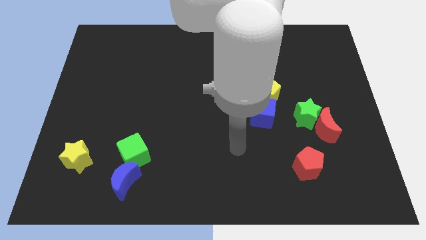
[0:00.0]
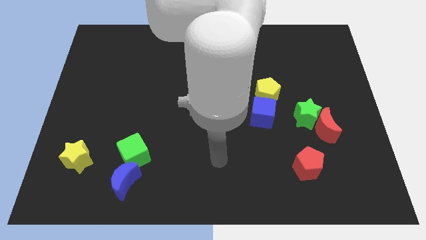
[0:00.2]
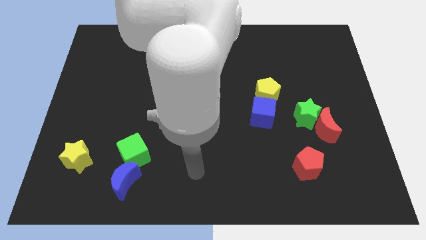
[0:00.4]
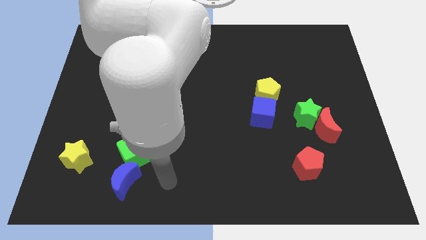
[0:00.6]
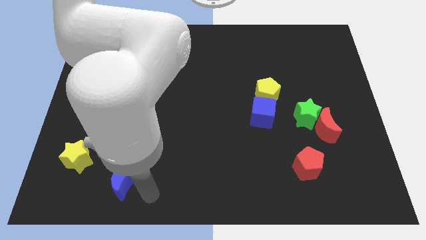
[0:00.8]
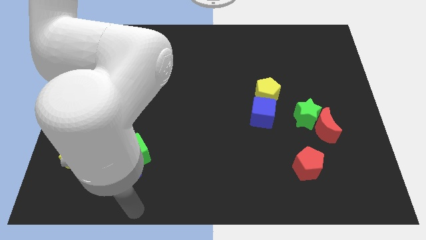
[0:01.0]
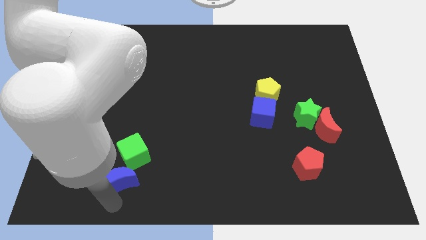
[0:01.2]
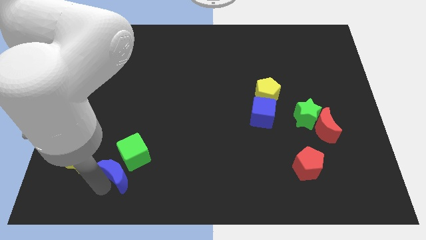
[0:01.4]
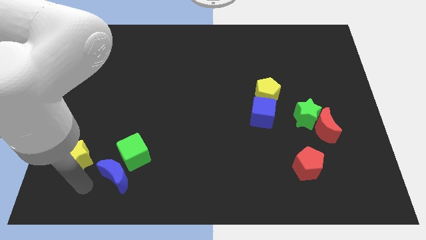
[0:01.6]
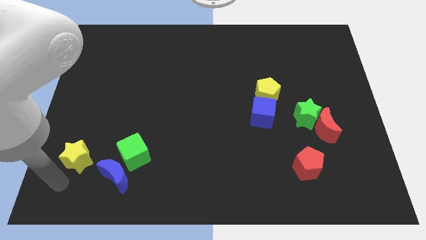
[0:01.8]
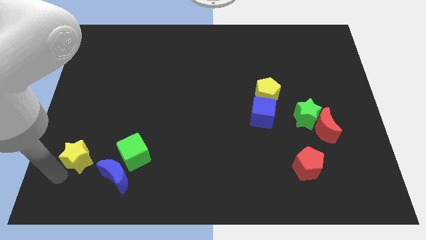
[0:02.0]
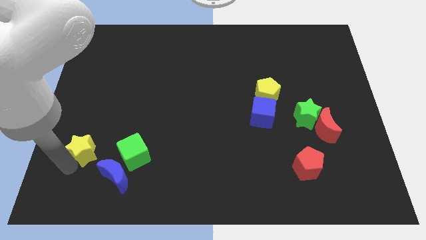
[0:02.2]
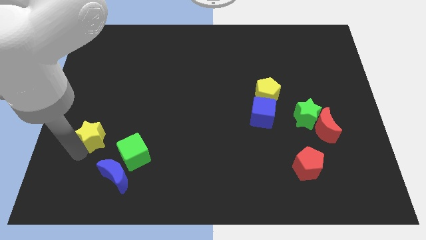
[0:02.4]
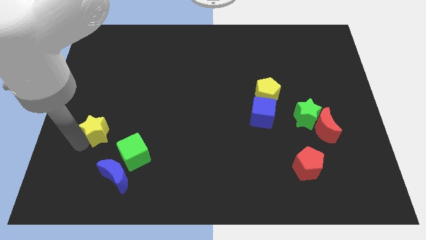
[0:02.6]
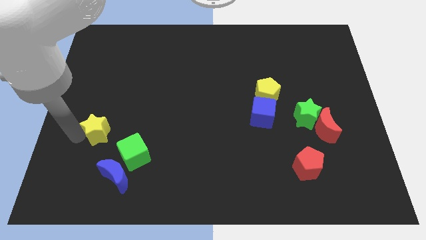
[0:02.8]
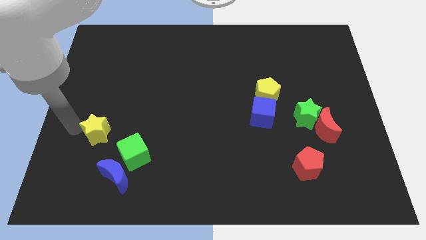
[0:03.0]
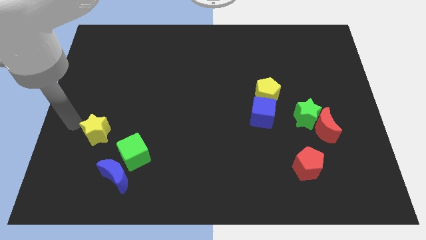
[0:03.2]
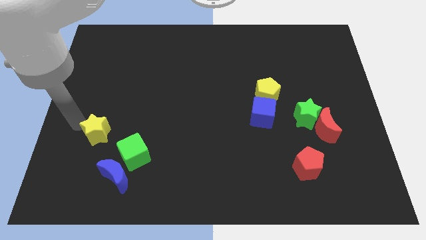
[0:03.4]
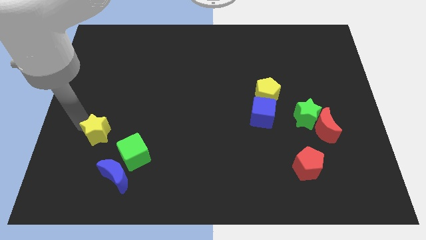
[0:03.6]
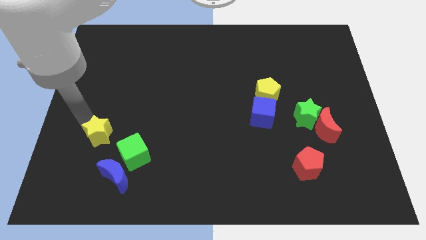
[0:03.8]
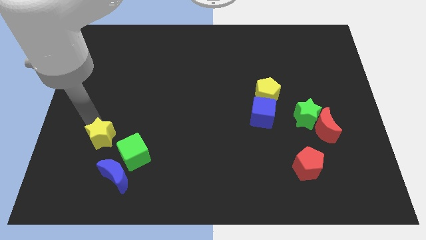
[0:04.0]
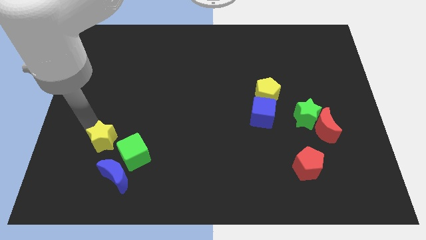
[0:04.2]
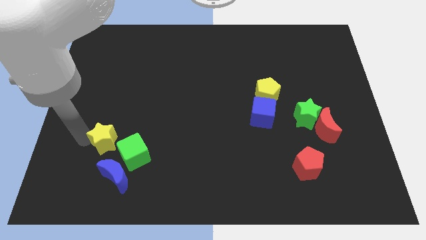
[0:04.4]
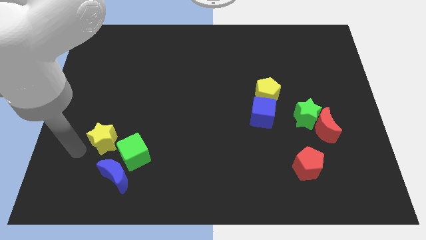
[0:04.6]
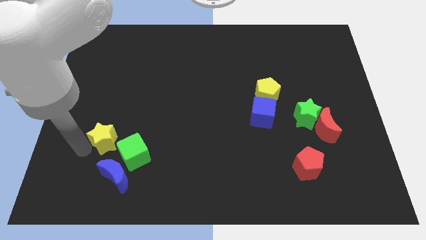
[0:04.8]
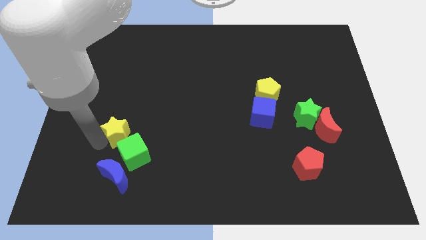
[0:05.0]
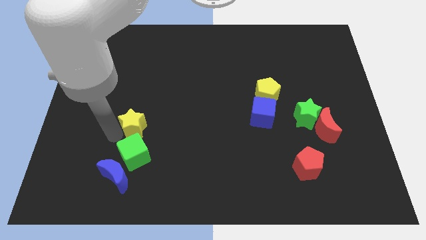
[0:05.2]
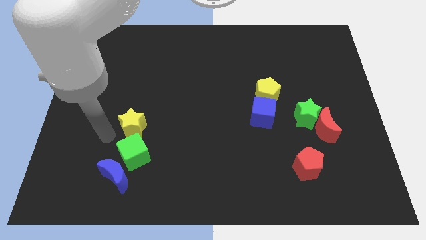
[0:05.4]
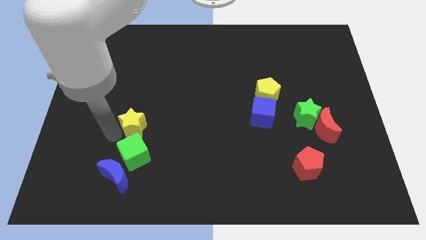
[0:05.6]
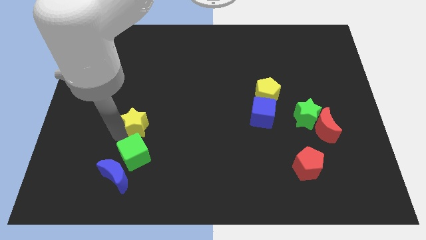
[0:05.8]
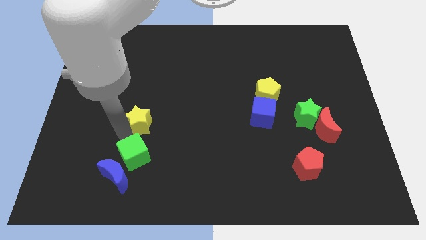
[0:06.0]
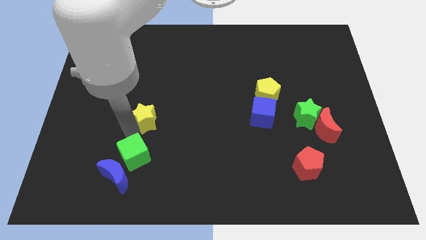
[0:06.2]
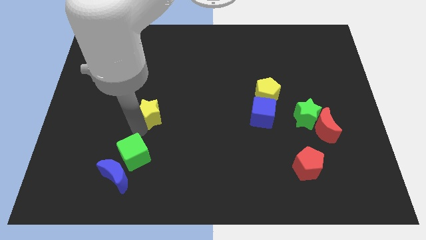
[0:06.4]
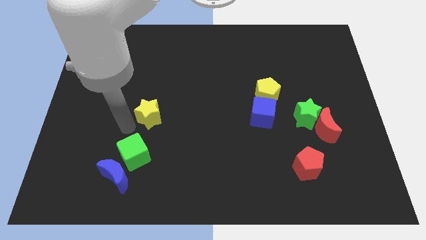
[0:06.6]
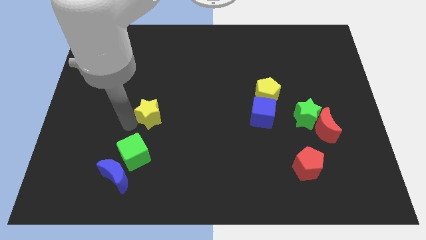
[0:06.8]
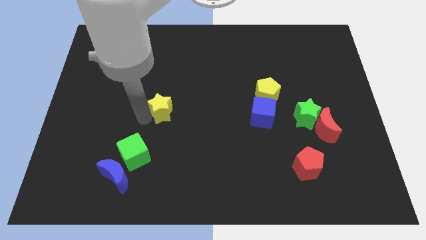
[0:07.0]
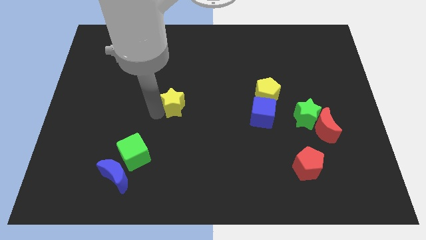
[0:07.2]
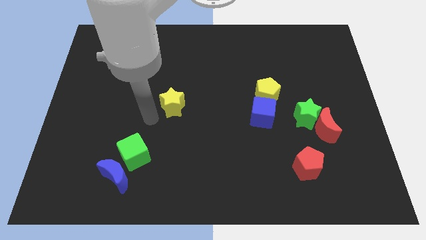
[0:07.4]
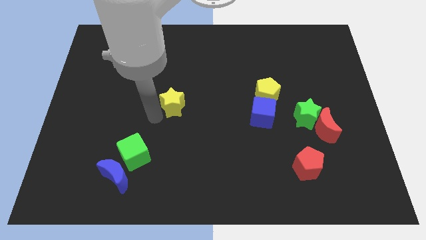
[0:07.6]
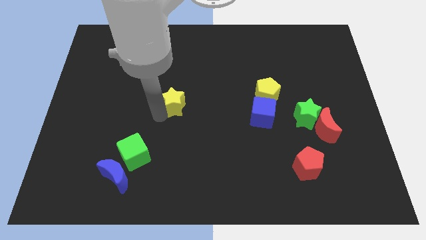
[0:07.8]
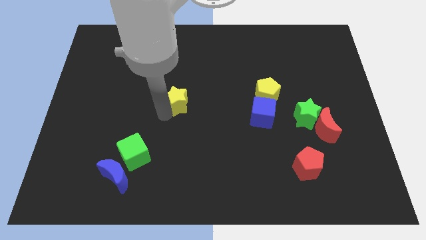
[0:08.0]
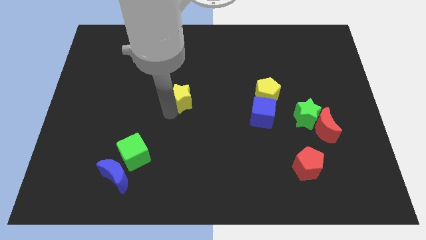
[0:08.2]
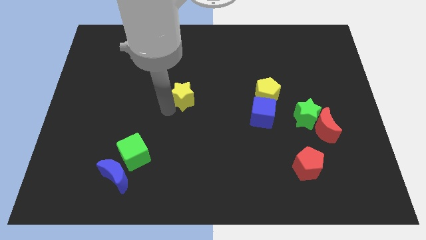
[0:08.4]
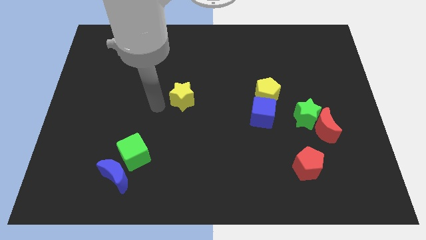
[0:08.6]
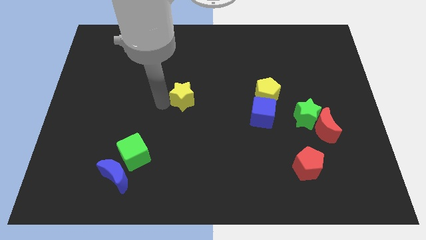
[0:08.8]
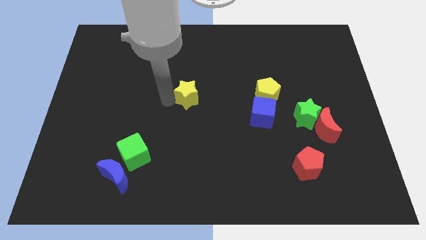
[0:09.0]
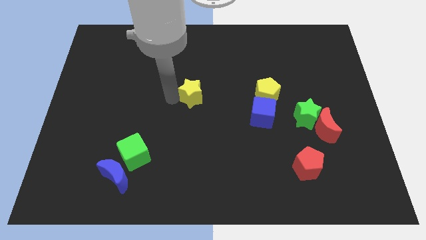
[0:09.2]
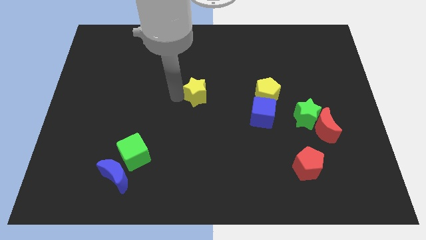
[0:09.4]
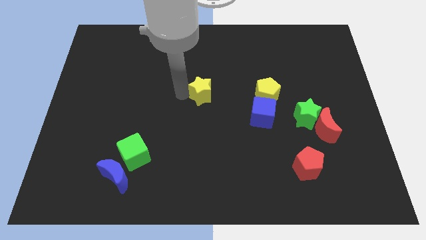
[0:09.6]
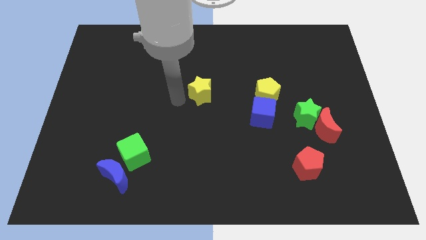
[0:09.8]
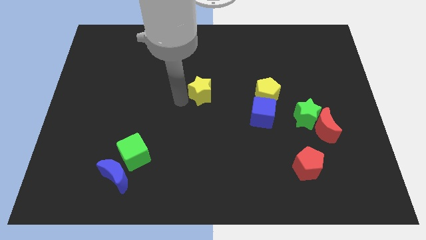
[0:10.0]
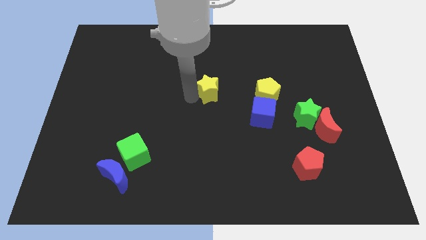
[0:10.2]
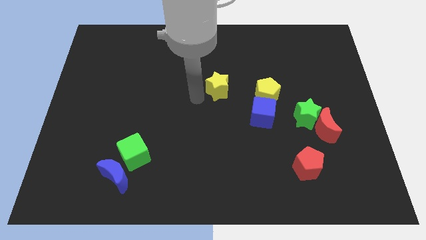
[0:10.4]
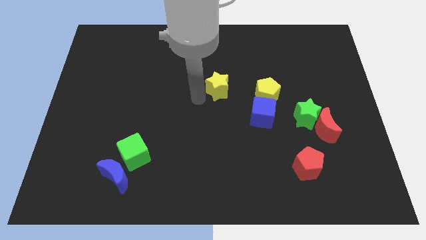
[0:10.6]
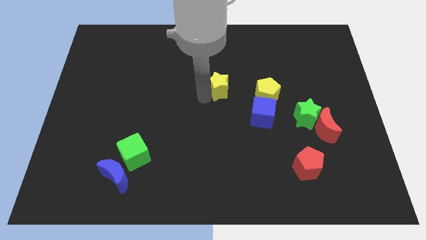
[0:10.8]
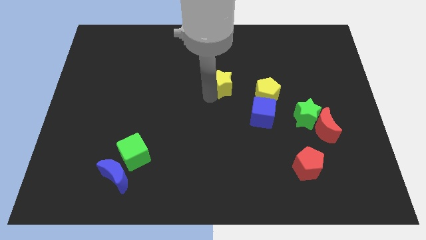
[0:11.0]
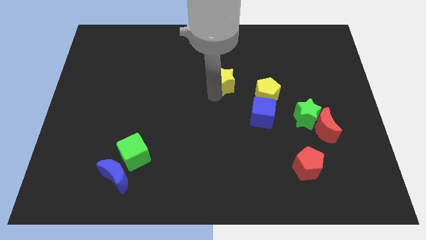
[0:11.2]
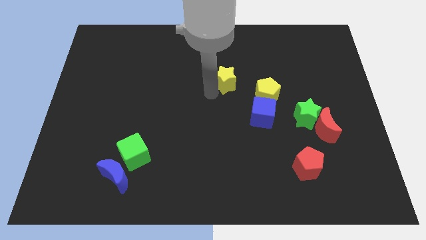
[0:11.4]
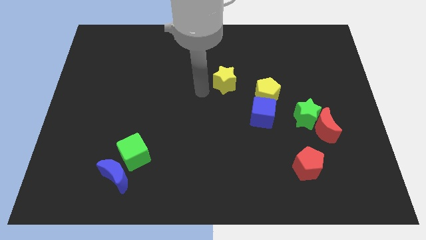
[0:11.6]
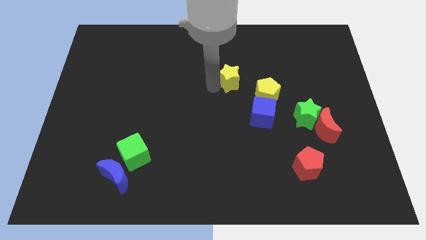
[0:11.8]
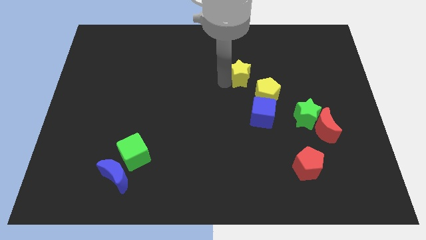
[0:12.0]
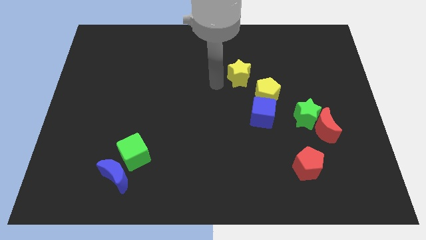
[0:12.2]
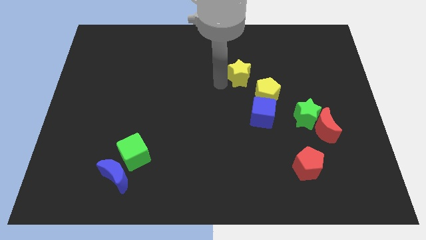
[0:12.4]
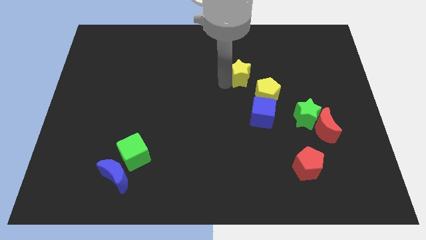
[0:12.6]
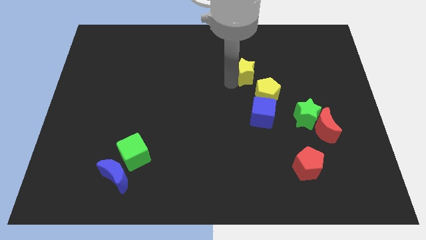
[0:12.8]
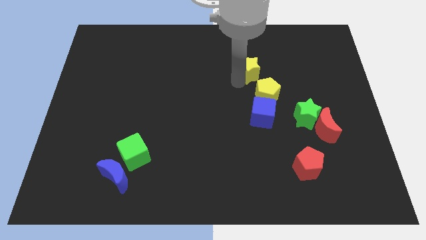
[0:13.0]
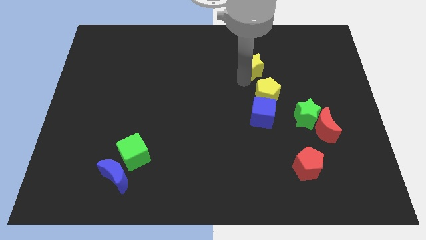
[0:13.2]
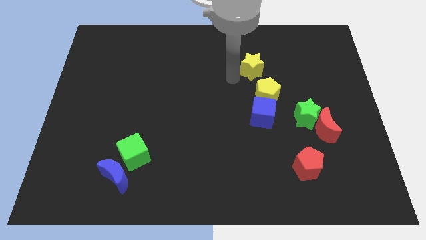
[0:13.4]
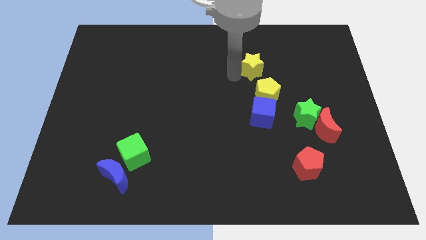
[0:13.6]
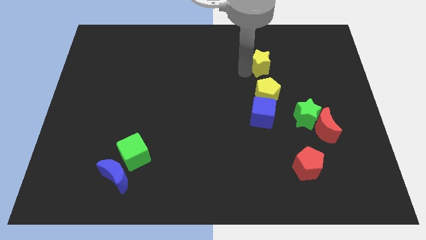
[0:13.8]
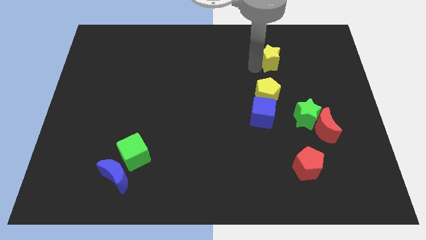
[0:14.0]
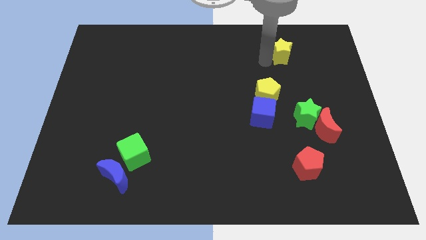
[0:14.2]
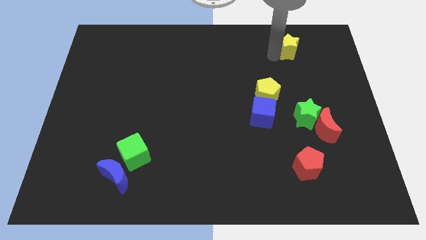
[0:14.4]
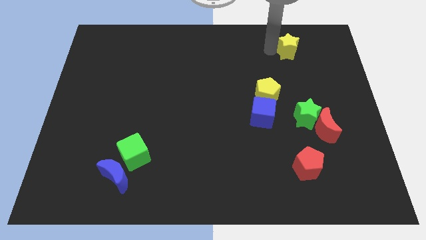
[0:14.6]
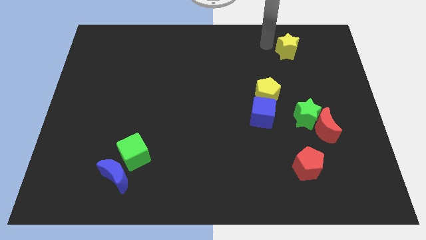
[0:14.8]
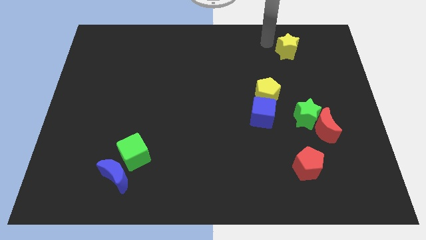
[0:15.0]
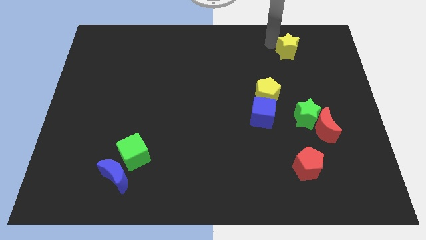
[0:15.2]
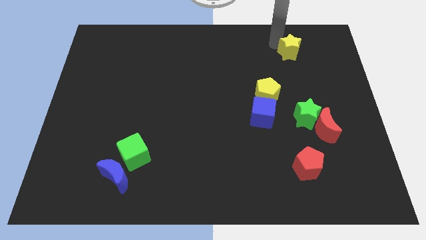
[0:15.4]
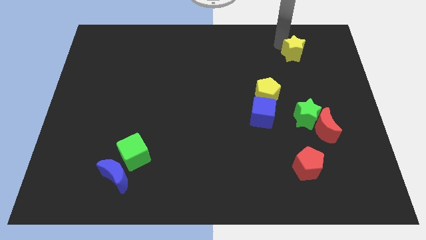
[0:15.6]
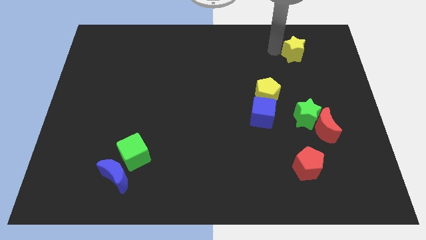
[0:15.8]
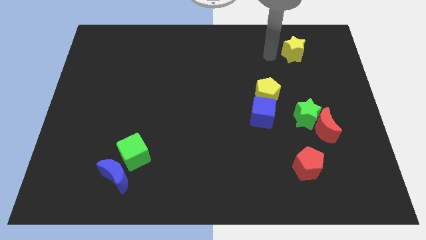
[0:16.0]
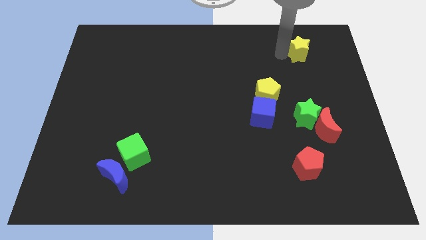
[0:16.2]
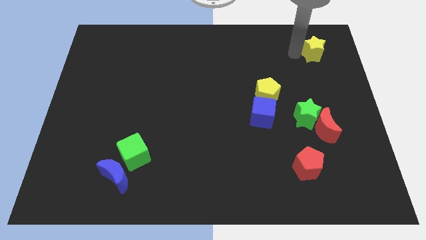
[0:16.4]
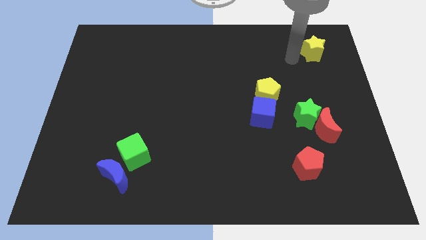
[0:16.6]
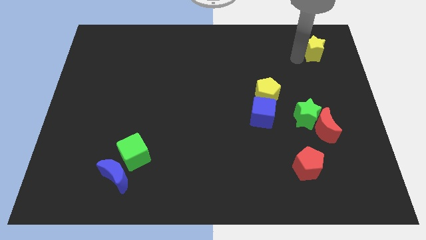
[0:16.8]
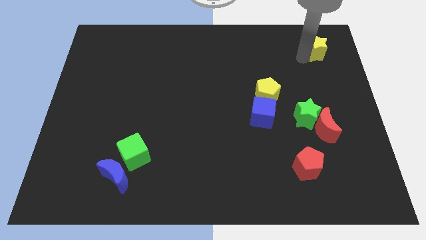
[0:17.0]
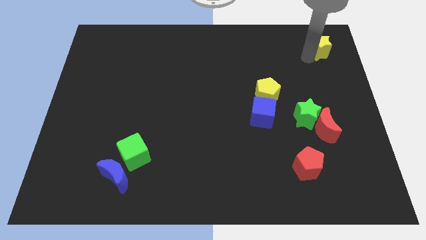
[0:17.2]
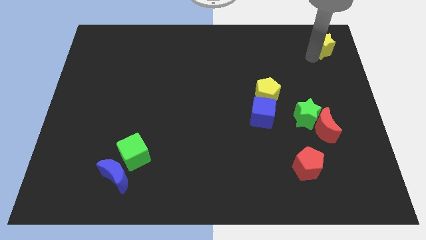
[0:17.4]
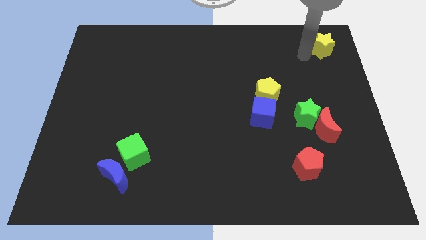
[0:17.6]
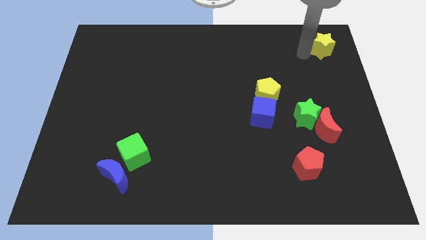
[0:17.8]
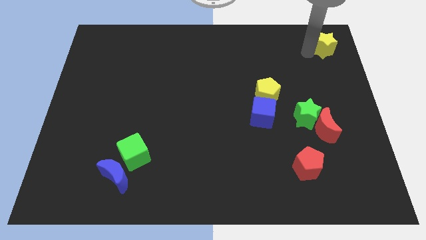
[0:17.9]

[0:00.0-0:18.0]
move the yellow star to the upper right corner
